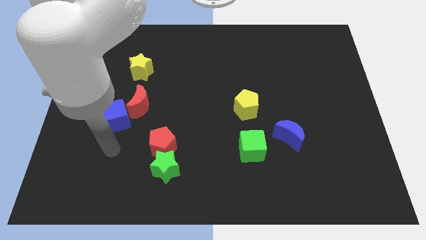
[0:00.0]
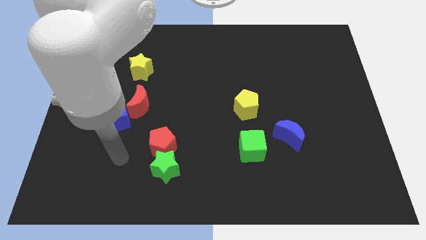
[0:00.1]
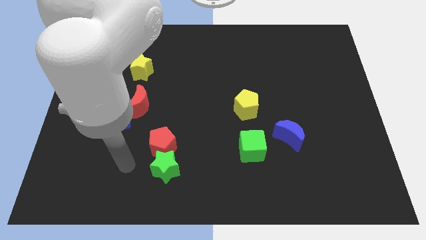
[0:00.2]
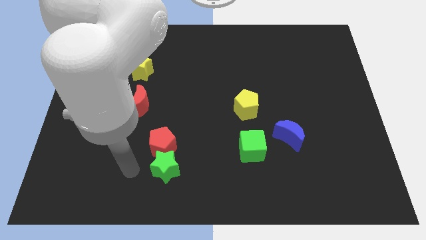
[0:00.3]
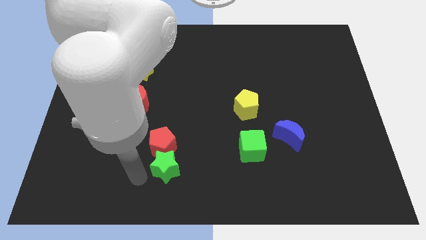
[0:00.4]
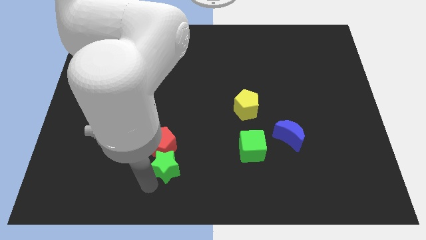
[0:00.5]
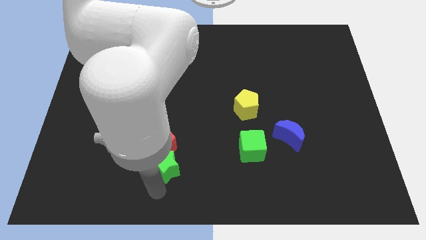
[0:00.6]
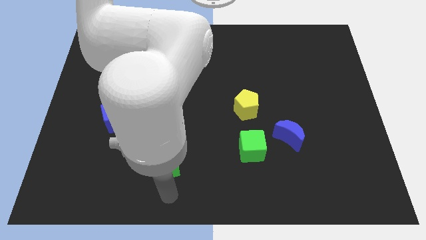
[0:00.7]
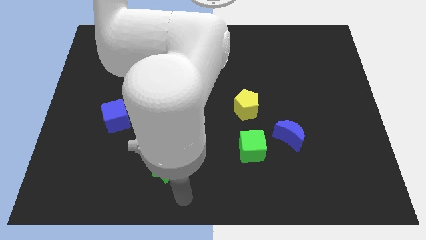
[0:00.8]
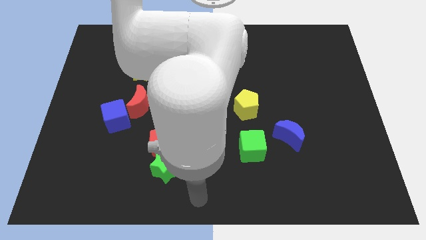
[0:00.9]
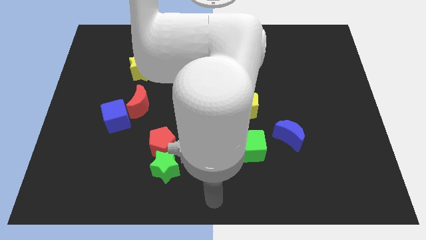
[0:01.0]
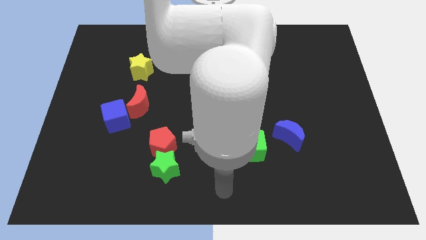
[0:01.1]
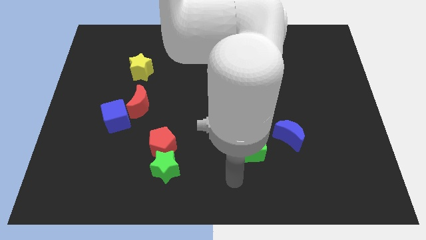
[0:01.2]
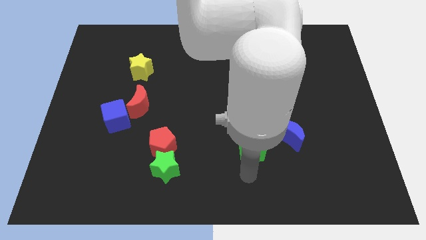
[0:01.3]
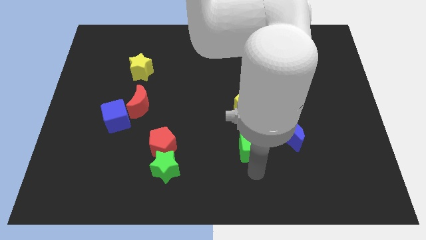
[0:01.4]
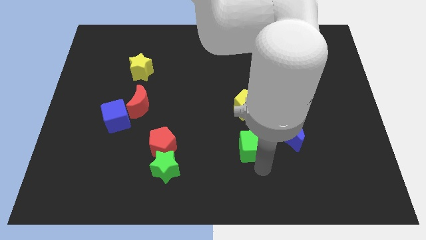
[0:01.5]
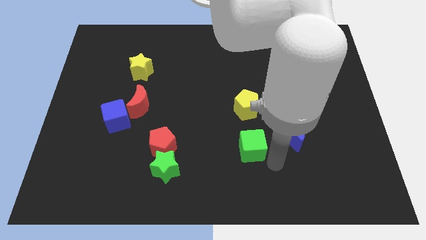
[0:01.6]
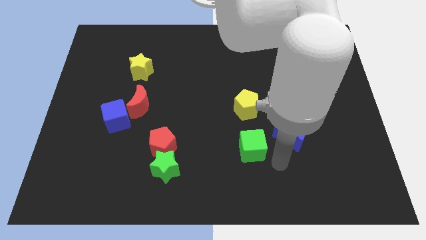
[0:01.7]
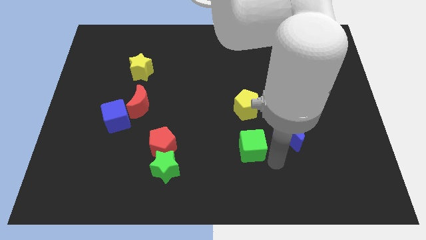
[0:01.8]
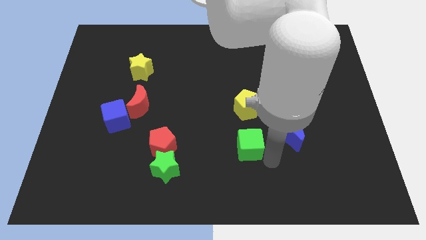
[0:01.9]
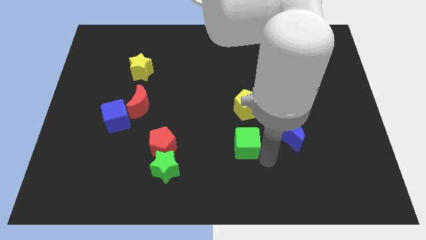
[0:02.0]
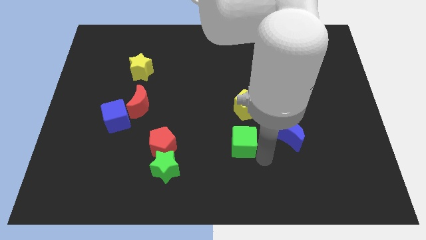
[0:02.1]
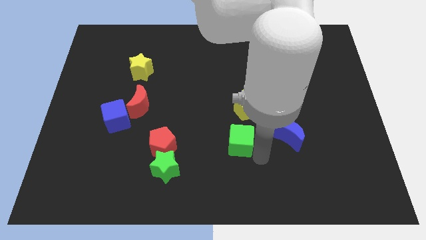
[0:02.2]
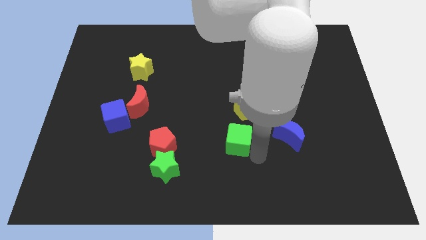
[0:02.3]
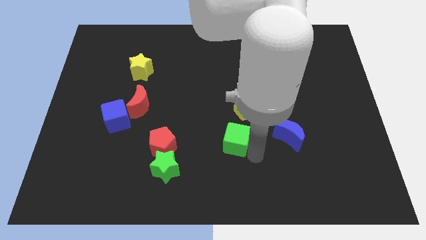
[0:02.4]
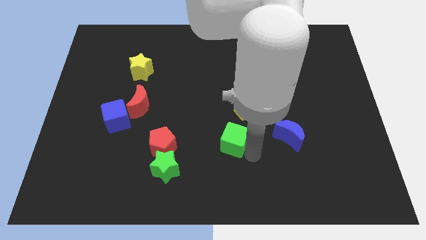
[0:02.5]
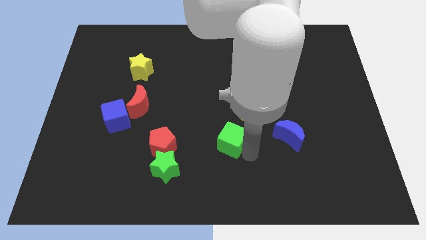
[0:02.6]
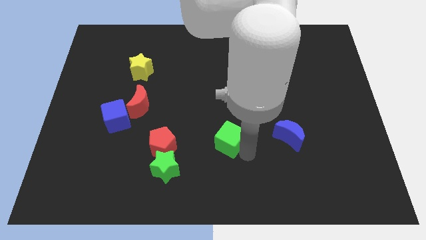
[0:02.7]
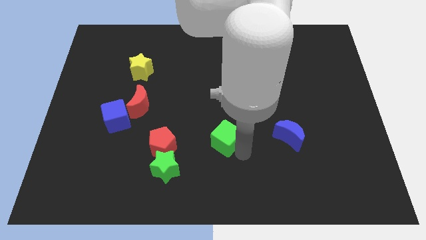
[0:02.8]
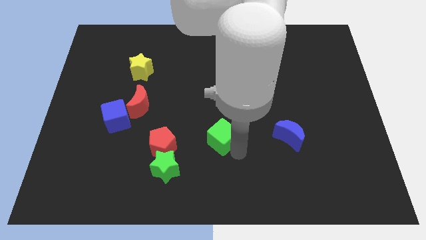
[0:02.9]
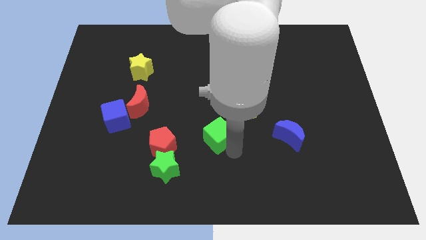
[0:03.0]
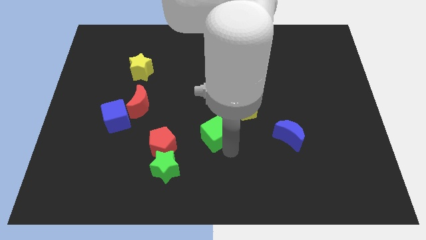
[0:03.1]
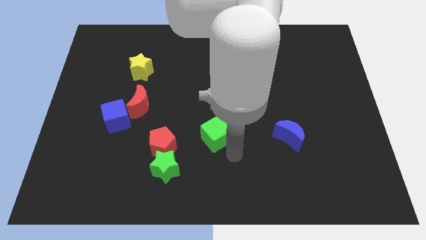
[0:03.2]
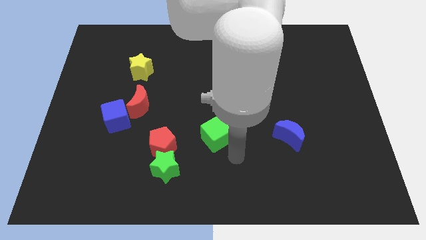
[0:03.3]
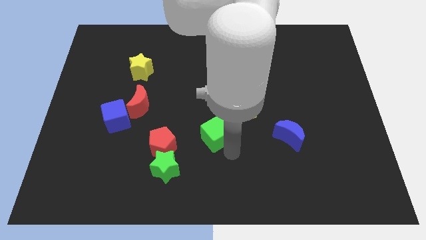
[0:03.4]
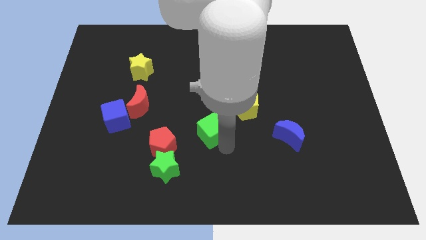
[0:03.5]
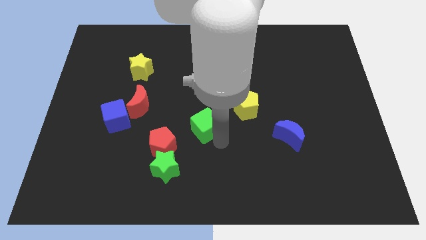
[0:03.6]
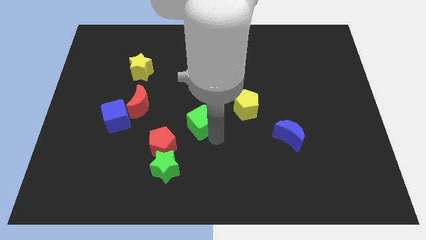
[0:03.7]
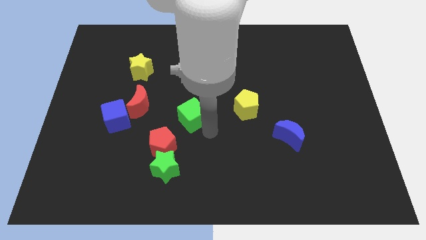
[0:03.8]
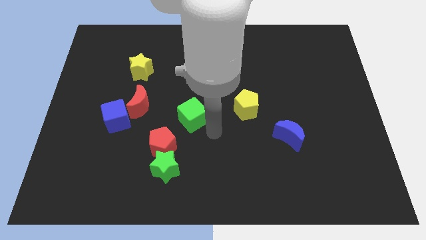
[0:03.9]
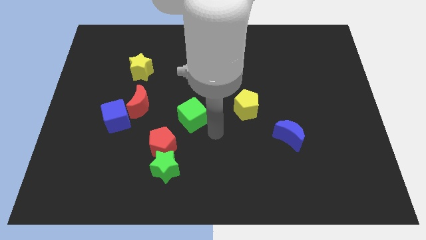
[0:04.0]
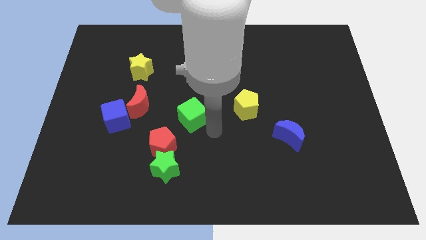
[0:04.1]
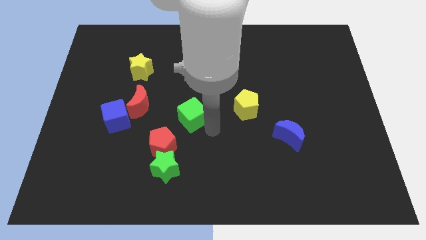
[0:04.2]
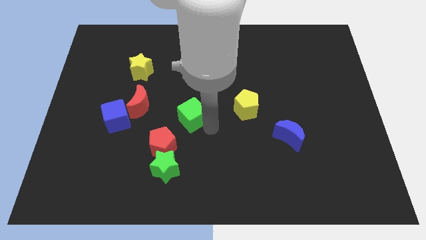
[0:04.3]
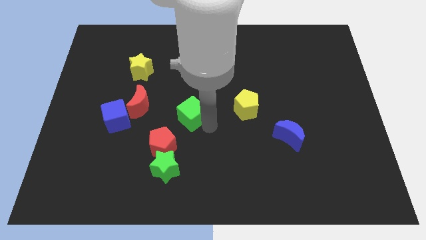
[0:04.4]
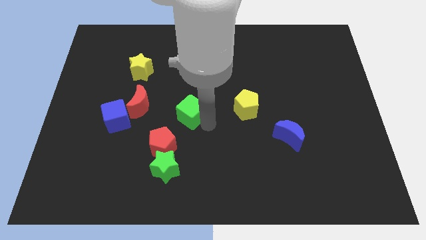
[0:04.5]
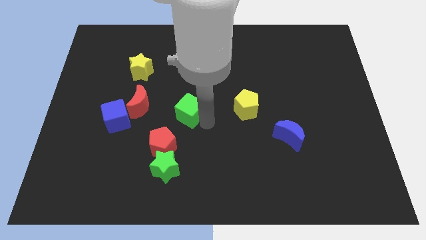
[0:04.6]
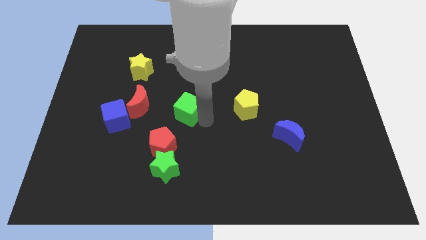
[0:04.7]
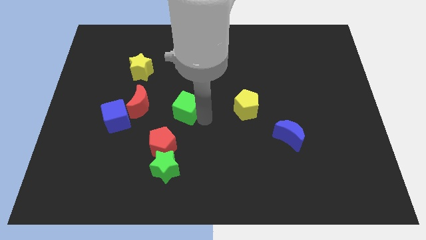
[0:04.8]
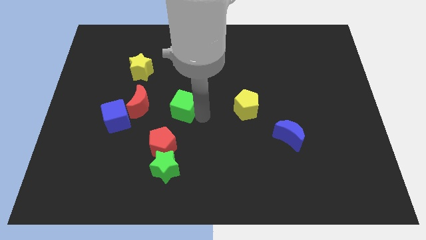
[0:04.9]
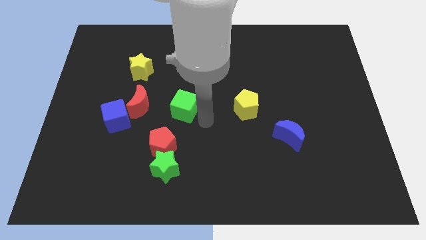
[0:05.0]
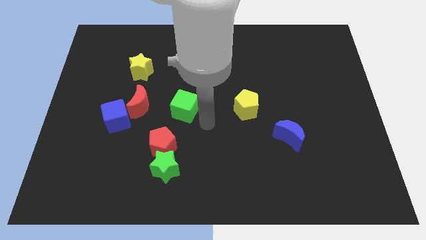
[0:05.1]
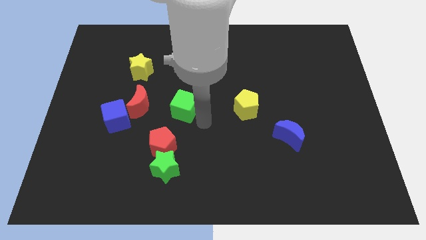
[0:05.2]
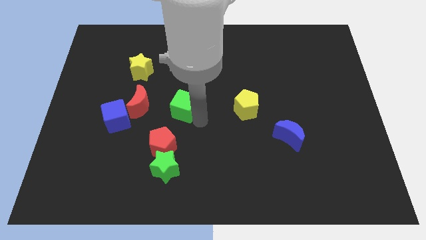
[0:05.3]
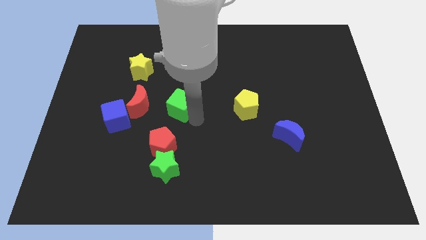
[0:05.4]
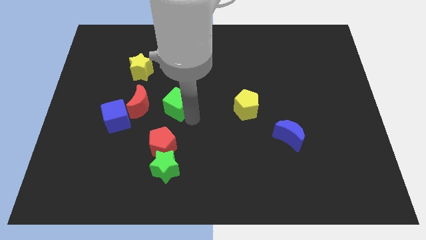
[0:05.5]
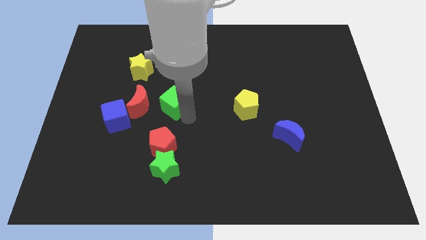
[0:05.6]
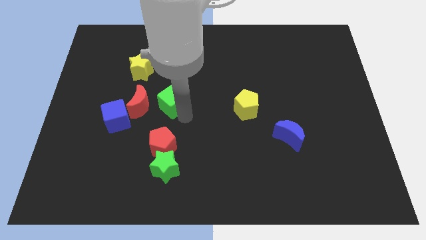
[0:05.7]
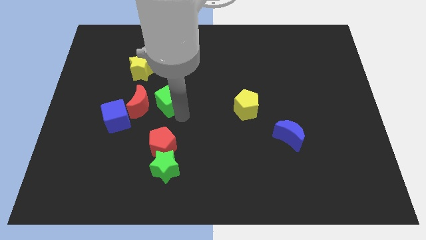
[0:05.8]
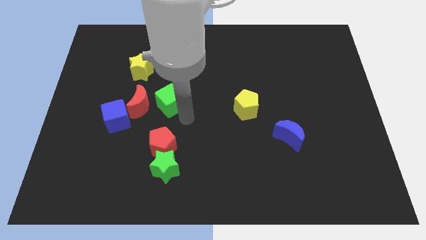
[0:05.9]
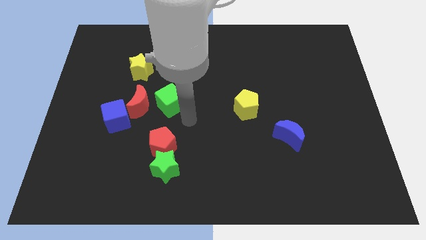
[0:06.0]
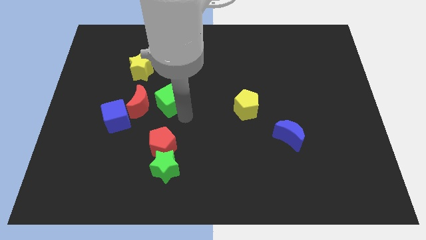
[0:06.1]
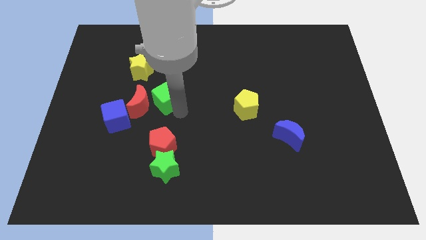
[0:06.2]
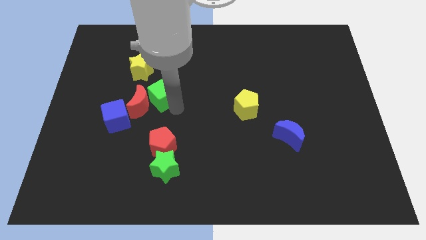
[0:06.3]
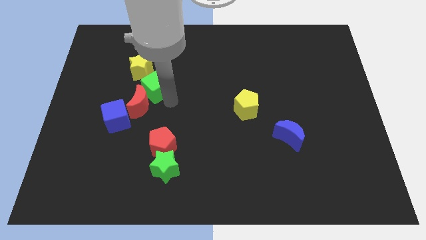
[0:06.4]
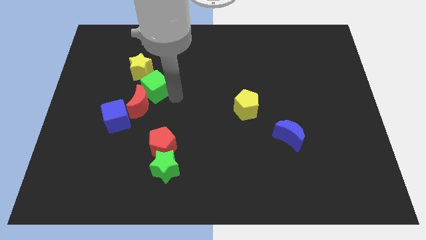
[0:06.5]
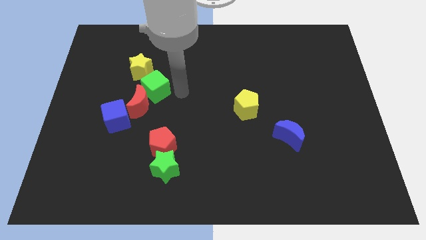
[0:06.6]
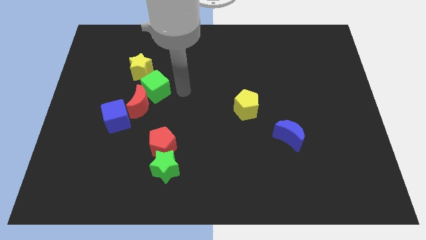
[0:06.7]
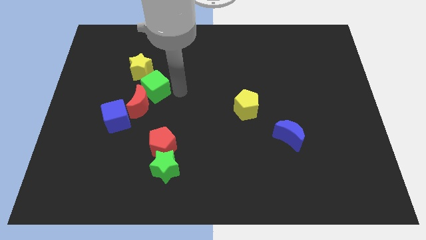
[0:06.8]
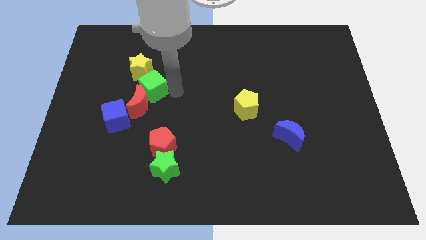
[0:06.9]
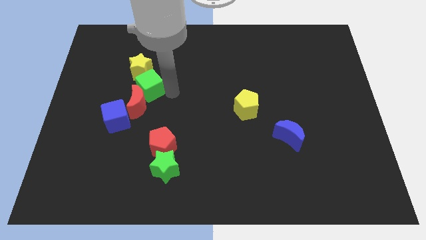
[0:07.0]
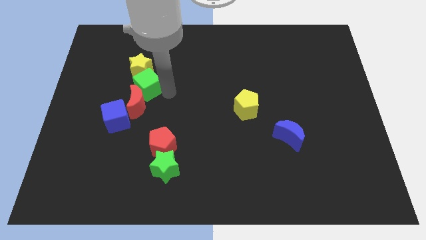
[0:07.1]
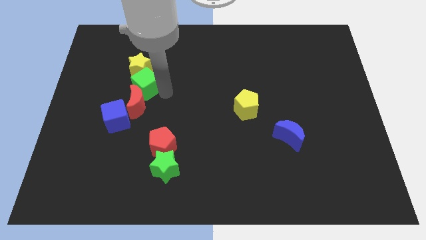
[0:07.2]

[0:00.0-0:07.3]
push the green cube to the top left side of the red moon

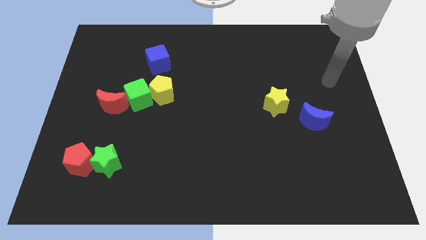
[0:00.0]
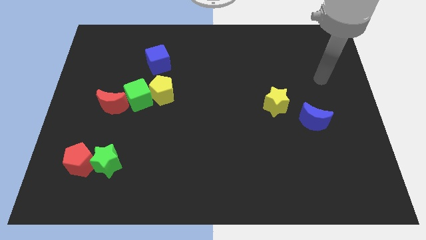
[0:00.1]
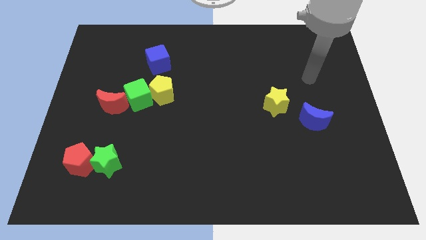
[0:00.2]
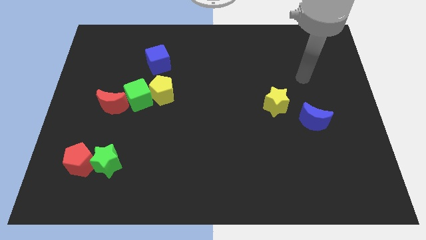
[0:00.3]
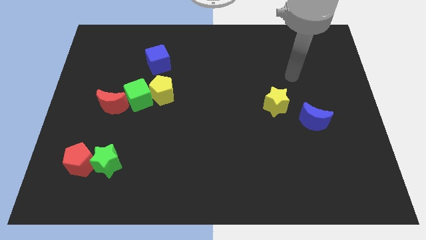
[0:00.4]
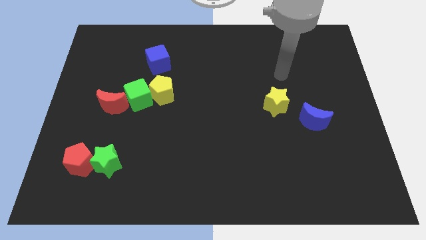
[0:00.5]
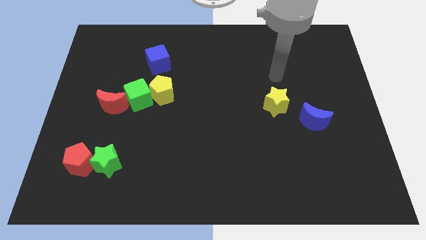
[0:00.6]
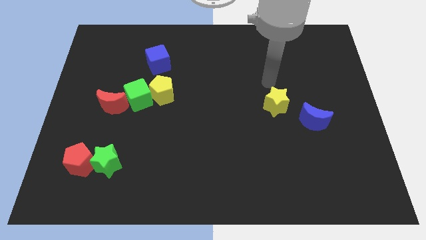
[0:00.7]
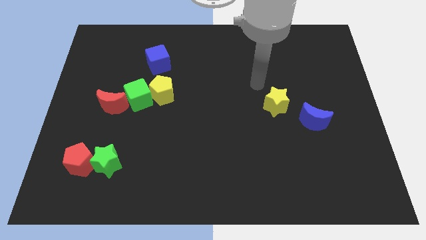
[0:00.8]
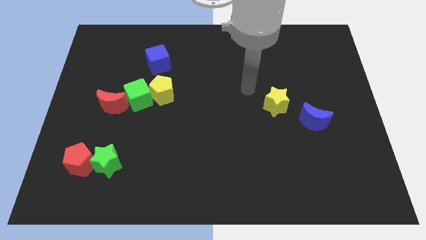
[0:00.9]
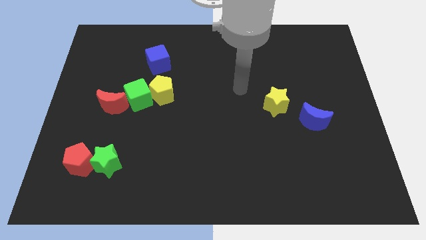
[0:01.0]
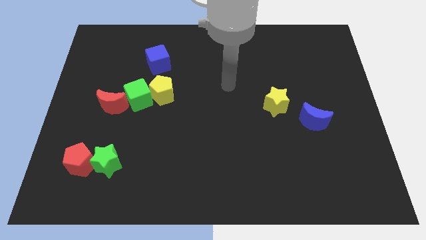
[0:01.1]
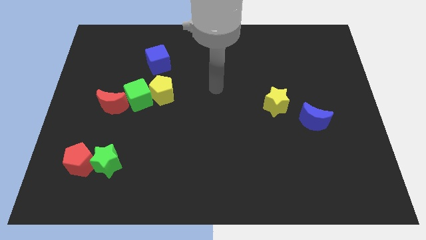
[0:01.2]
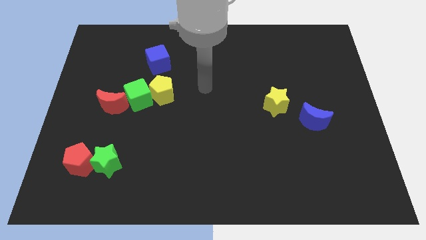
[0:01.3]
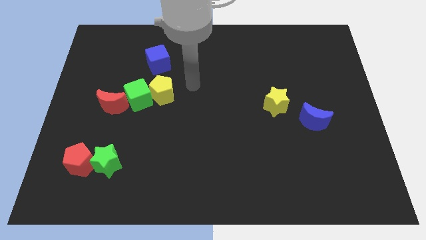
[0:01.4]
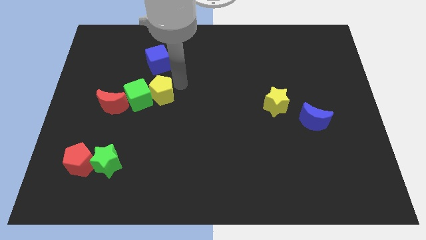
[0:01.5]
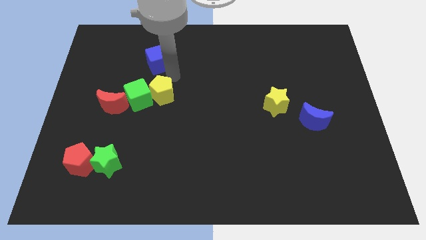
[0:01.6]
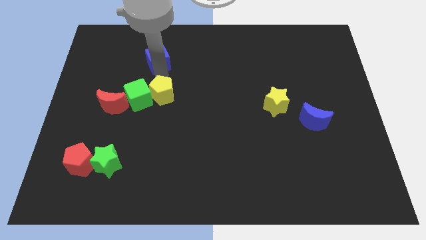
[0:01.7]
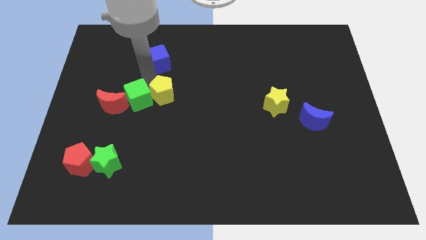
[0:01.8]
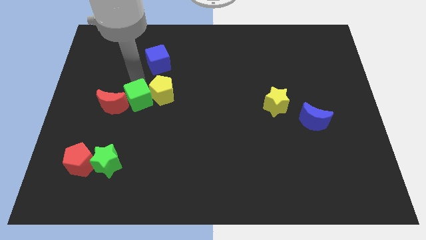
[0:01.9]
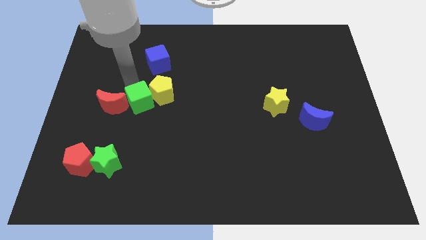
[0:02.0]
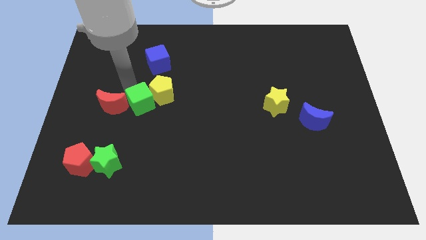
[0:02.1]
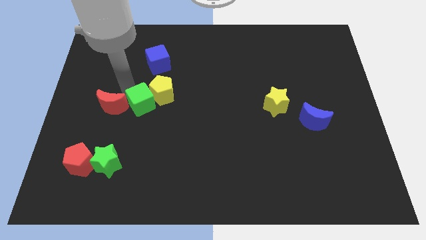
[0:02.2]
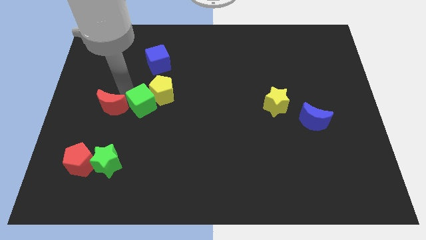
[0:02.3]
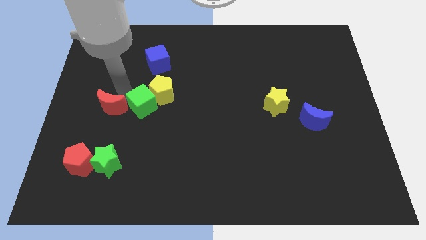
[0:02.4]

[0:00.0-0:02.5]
put the red moon to the top of the red pentagon
